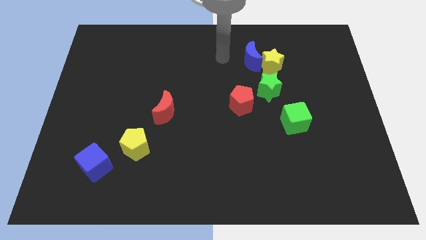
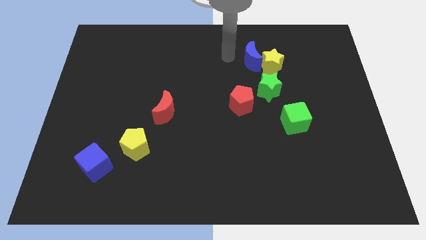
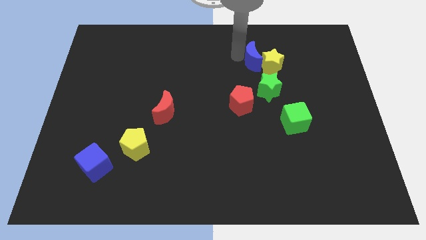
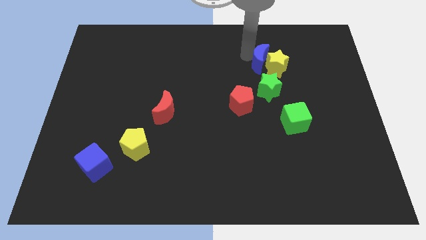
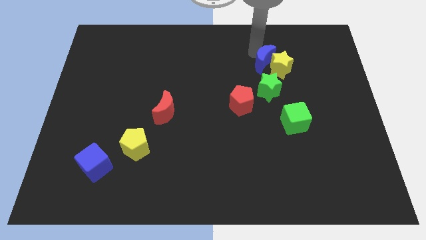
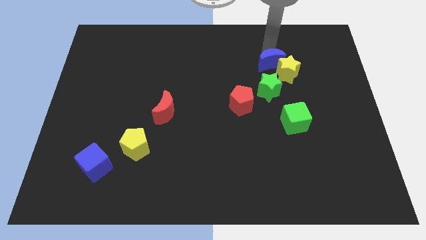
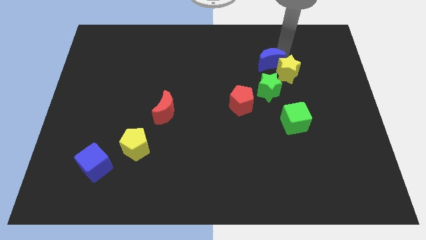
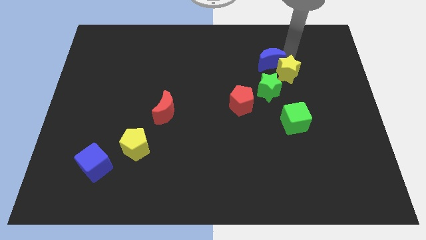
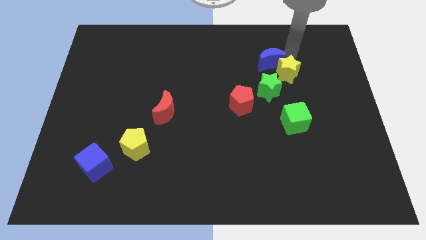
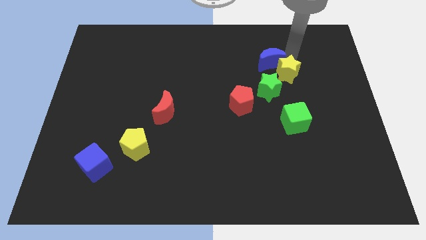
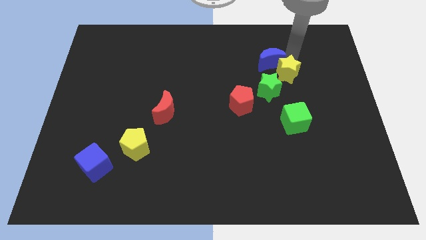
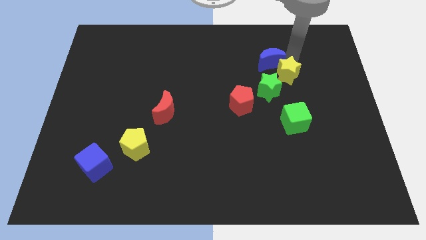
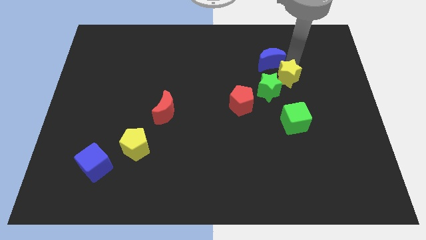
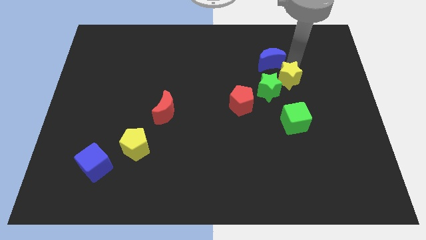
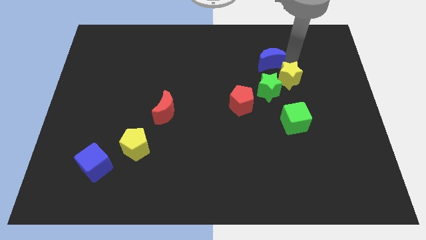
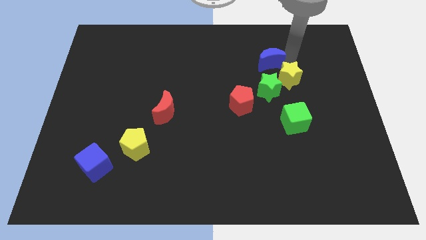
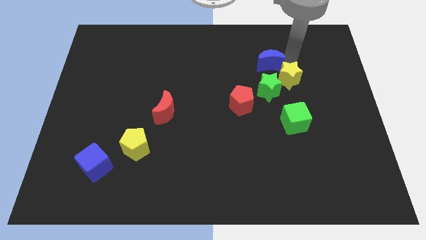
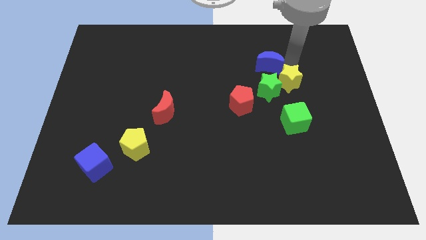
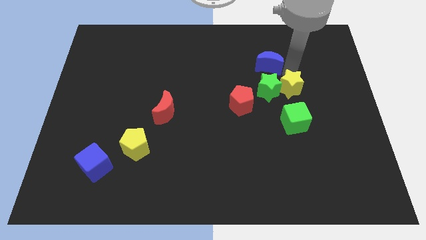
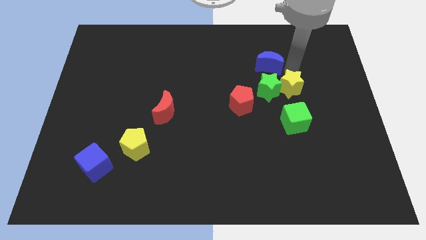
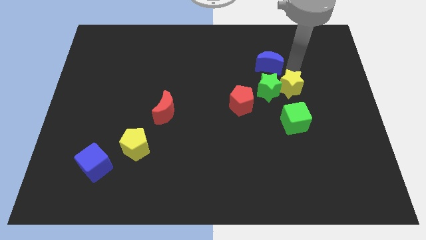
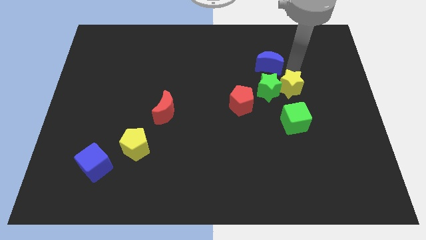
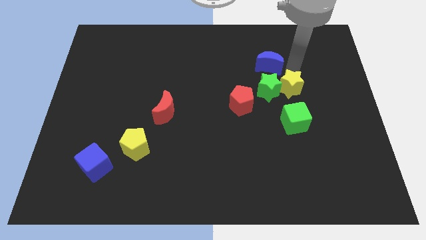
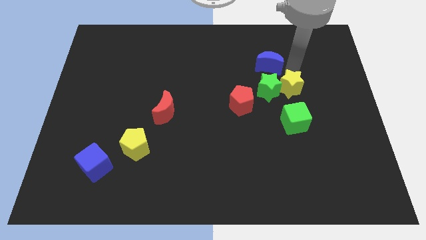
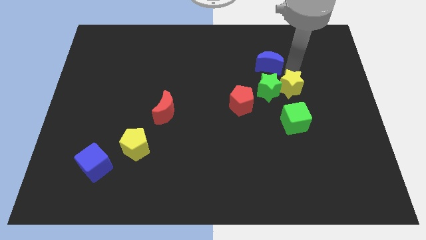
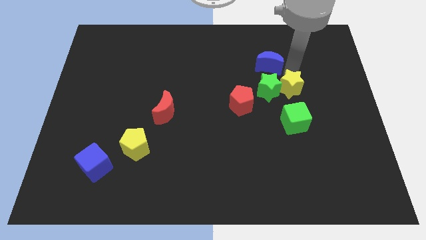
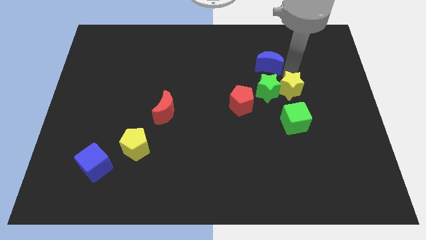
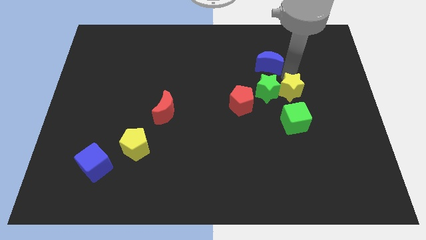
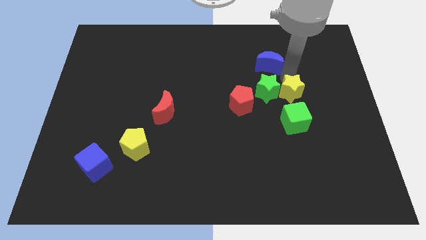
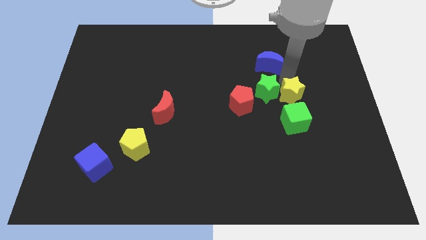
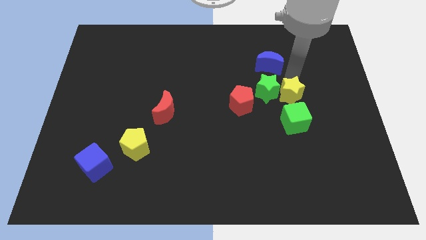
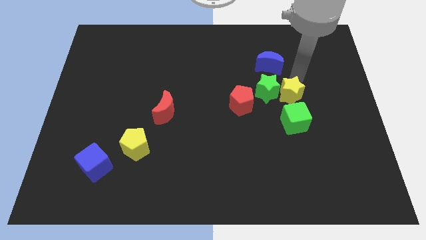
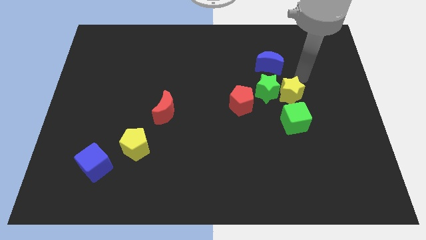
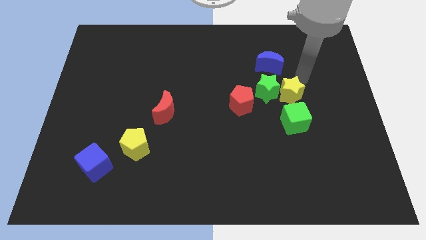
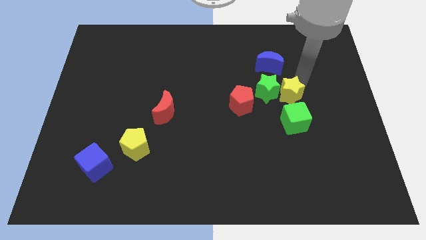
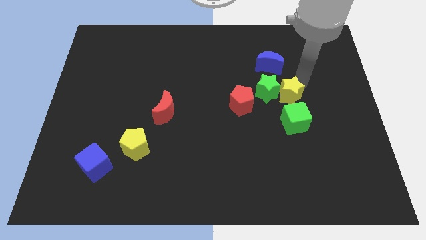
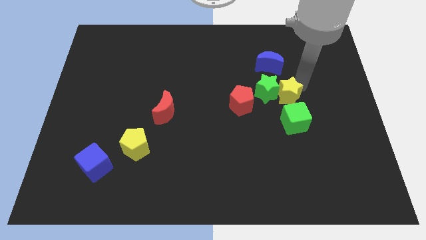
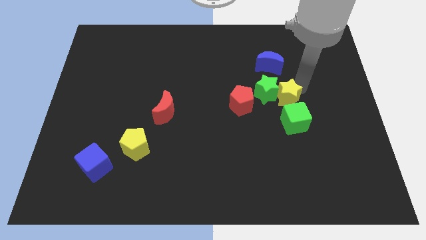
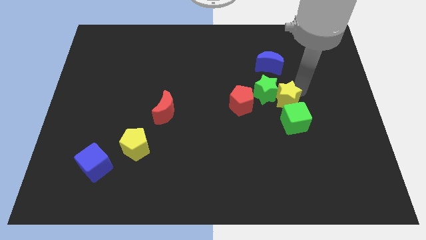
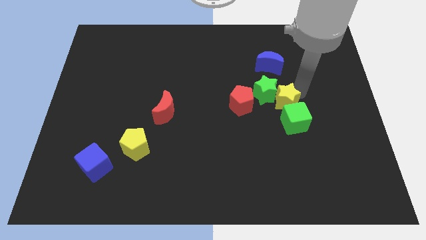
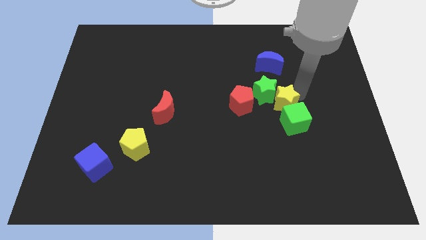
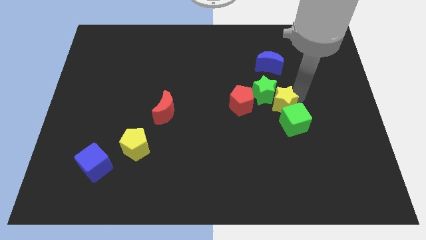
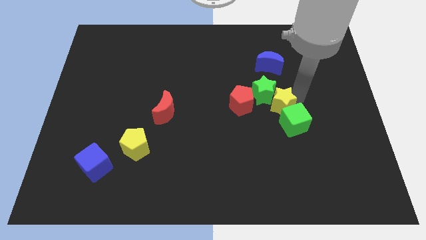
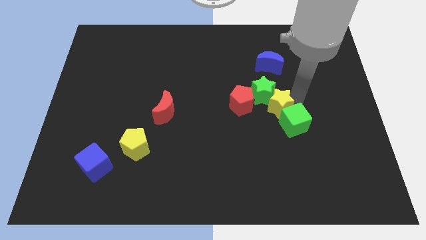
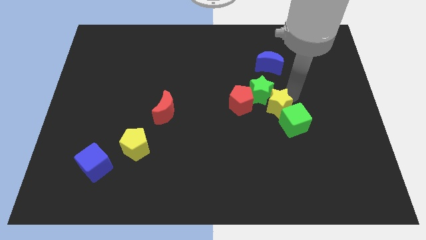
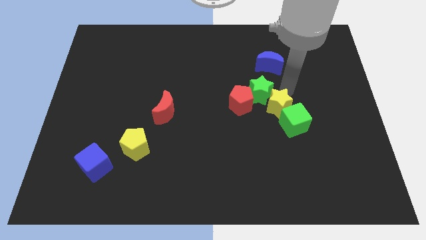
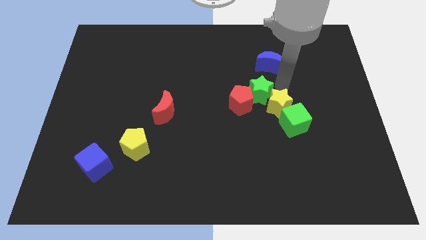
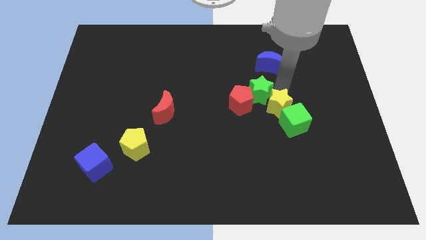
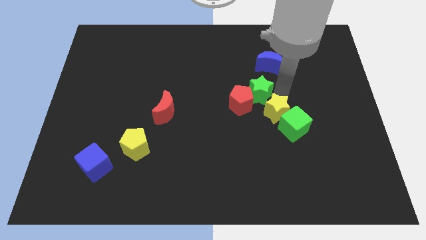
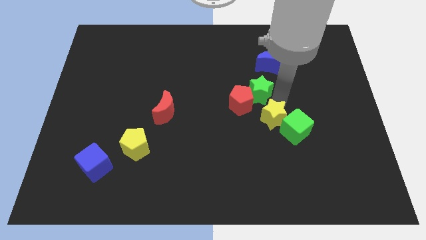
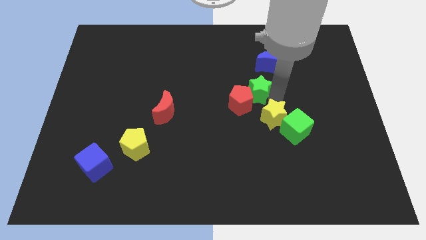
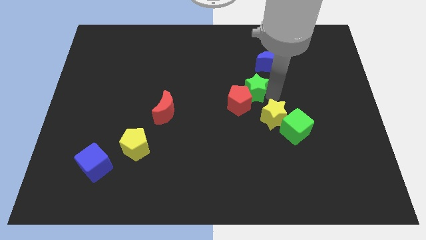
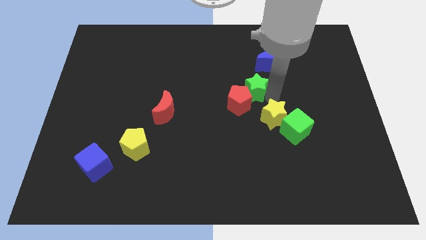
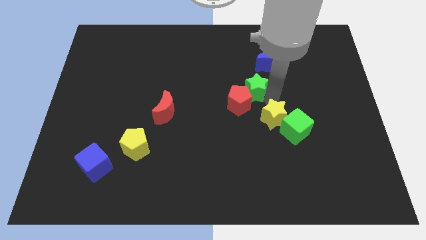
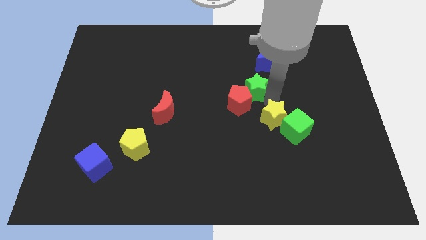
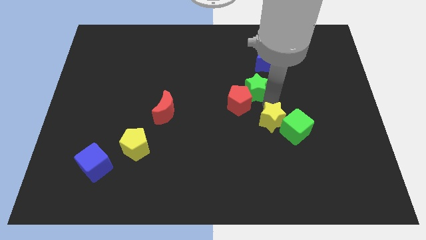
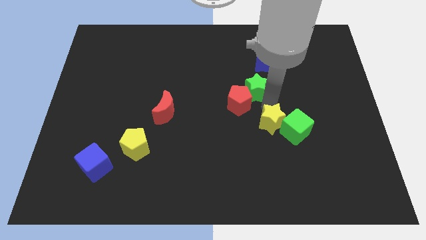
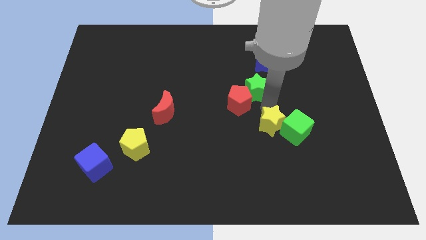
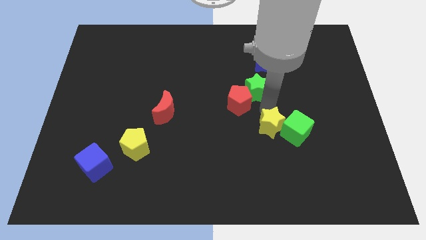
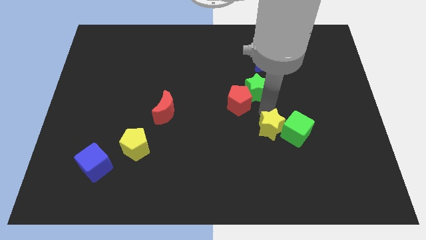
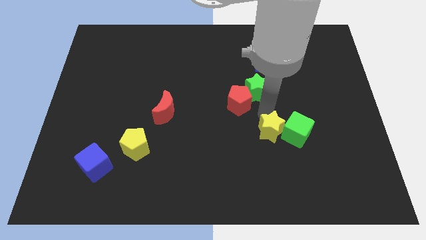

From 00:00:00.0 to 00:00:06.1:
slide the yellow star down

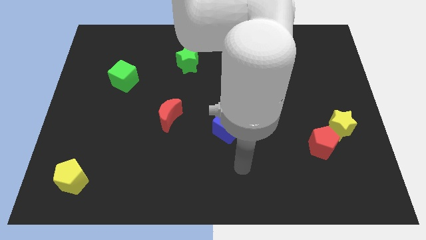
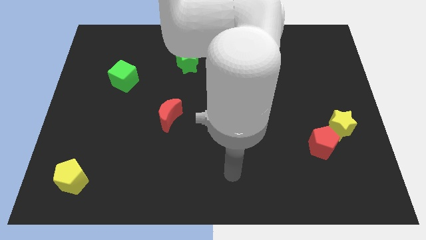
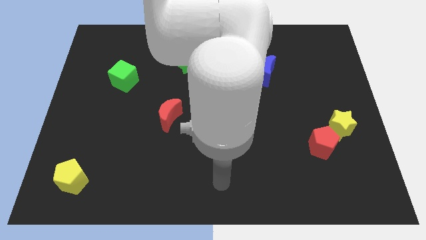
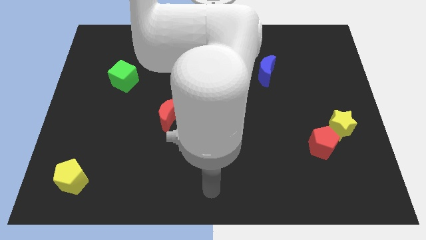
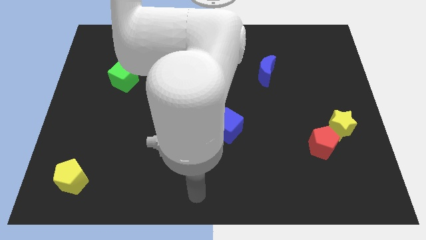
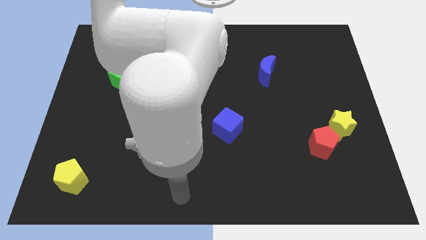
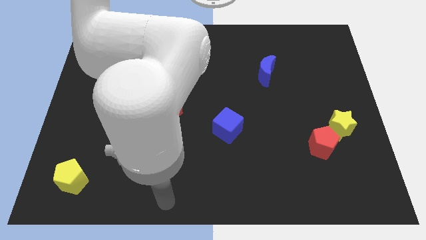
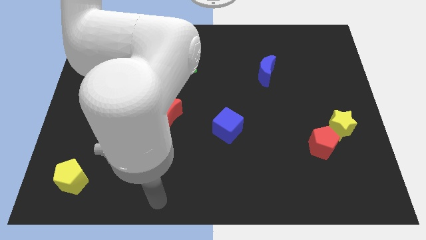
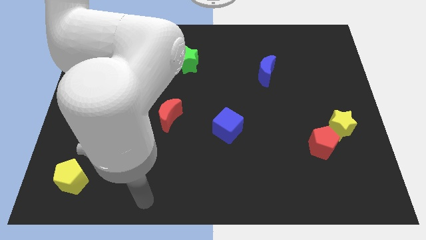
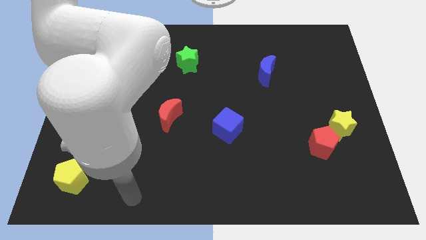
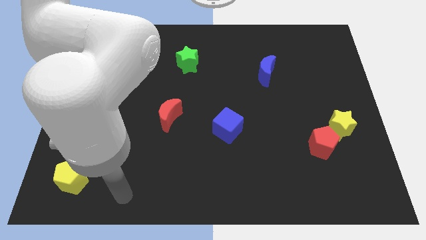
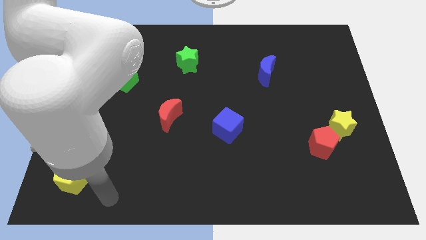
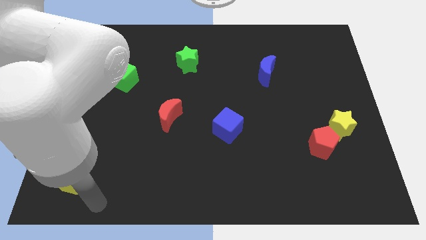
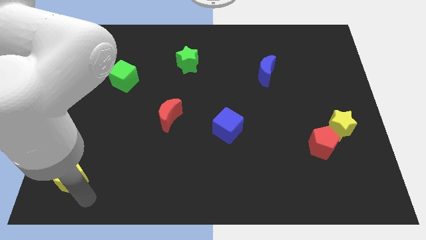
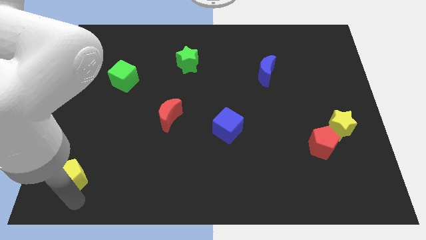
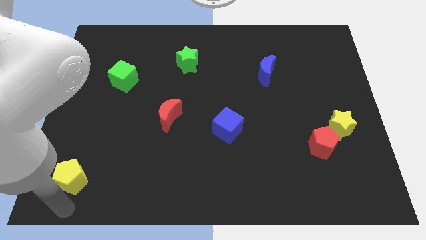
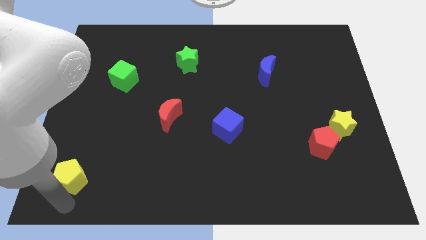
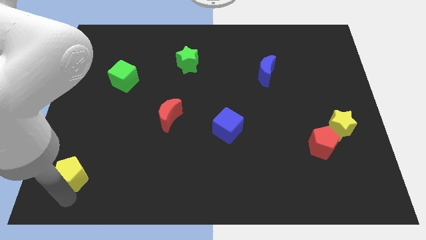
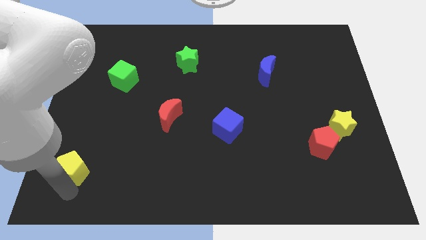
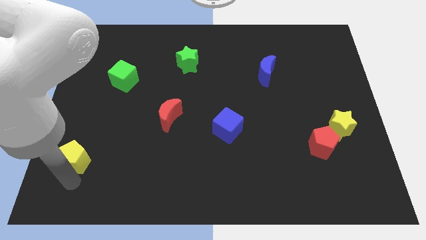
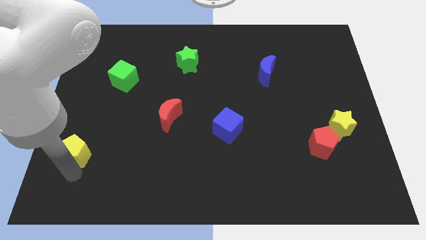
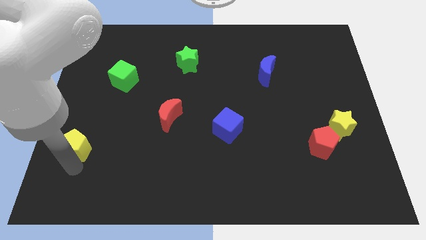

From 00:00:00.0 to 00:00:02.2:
move the yellow pentagon a little upwards
